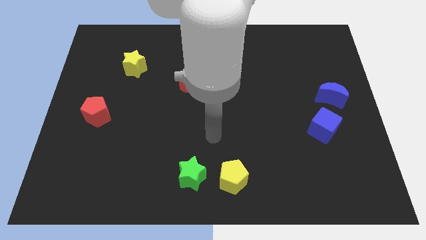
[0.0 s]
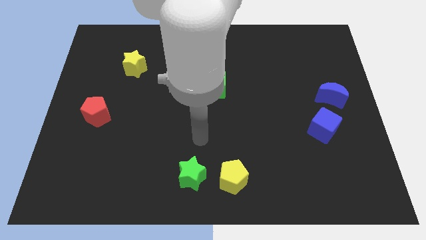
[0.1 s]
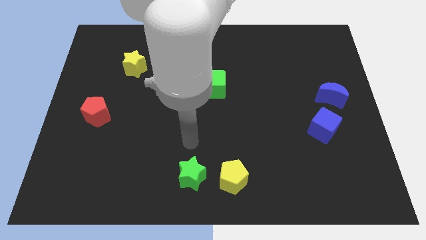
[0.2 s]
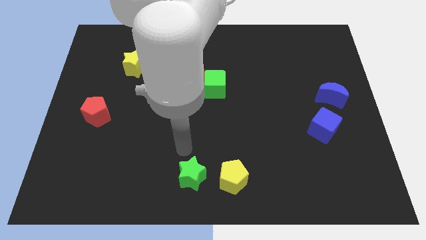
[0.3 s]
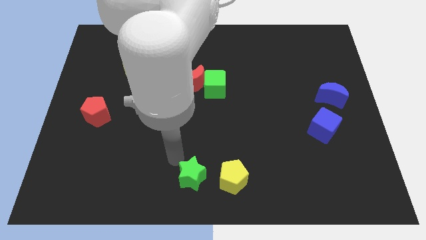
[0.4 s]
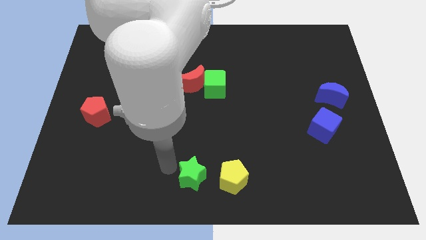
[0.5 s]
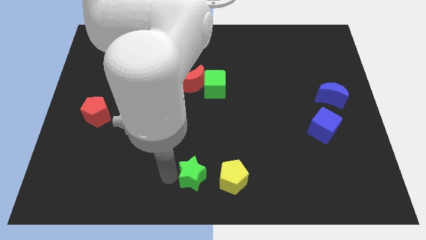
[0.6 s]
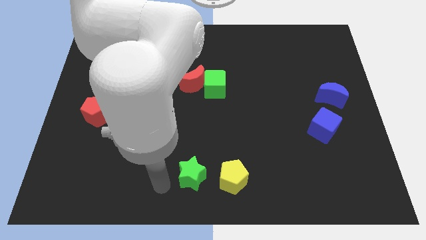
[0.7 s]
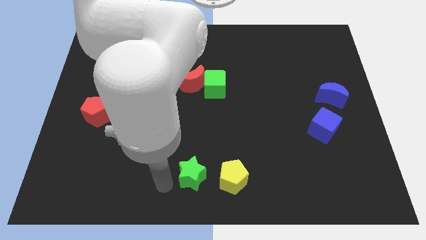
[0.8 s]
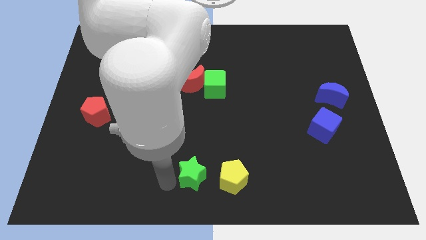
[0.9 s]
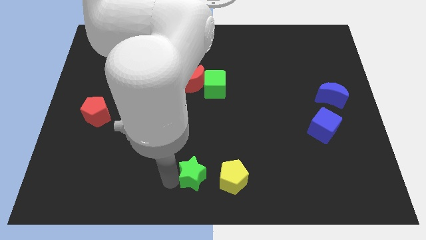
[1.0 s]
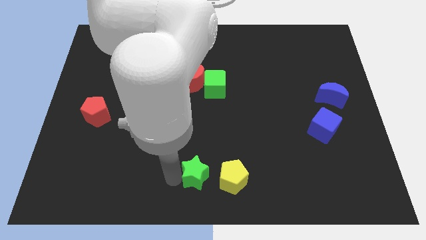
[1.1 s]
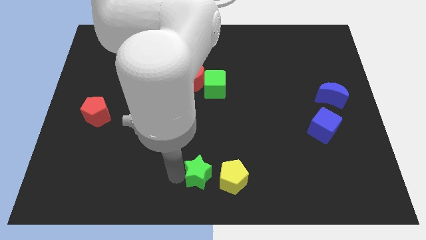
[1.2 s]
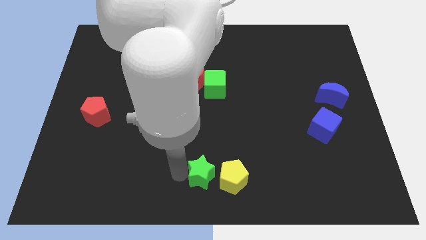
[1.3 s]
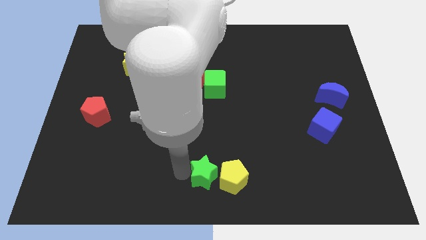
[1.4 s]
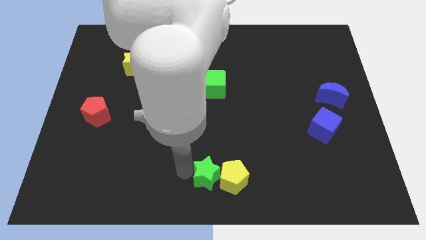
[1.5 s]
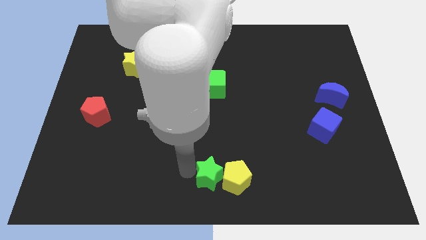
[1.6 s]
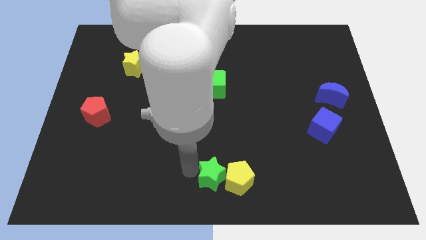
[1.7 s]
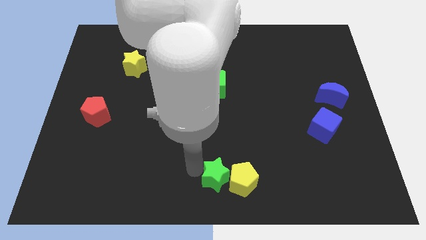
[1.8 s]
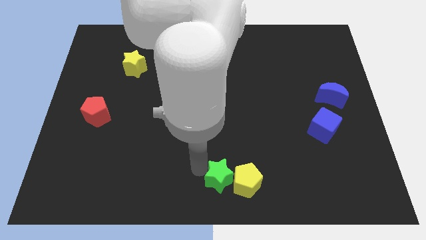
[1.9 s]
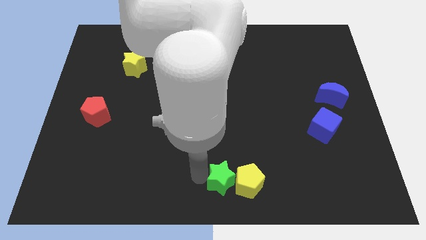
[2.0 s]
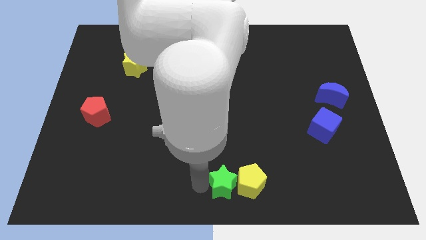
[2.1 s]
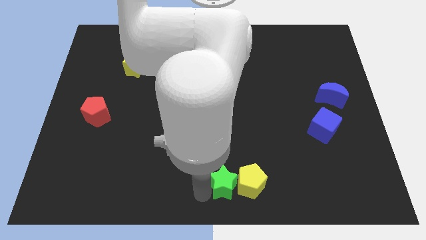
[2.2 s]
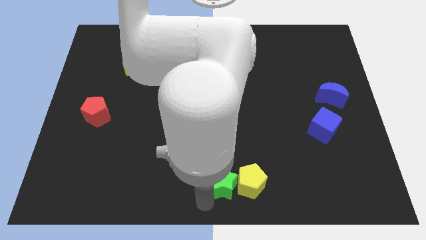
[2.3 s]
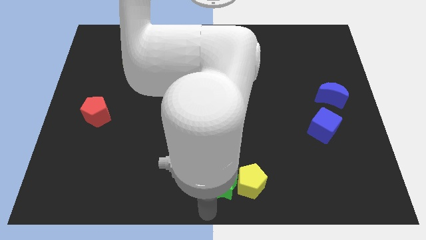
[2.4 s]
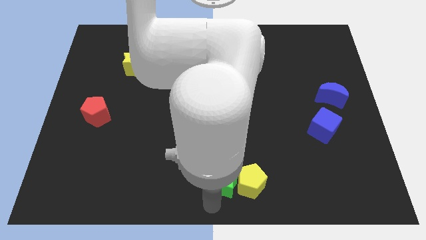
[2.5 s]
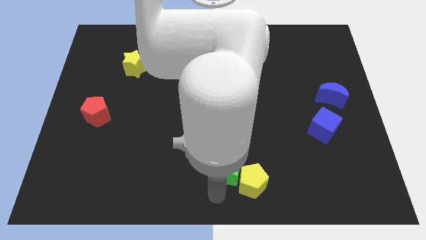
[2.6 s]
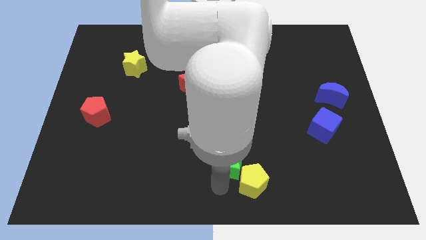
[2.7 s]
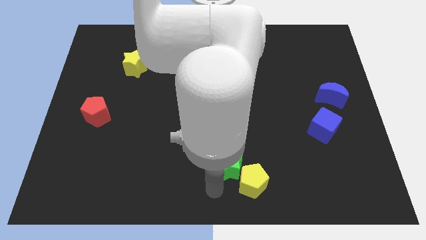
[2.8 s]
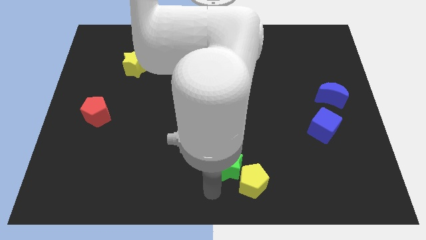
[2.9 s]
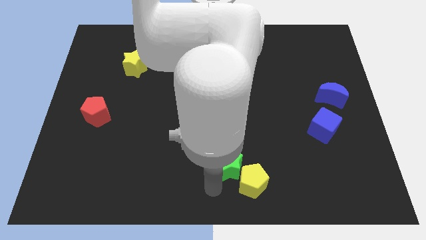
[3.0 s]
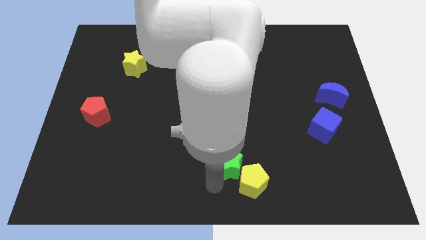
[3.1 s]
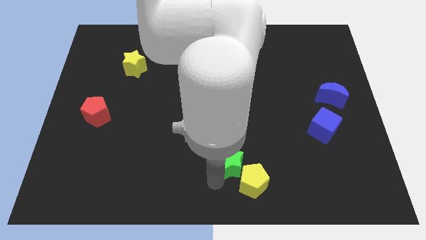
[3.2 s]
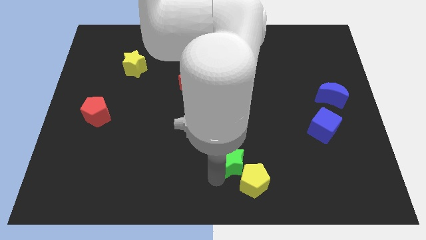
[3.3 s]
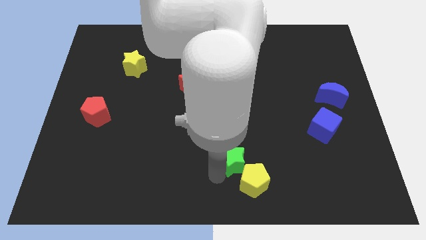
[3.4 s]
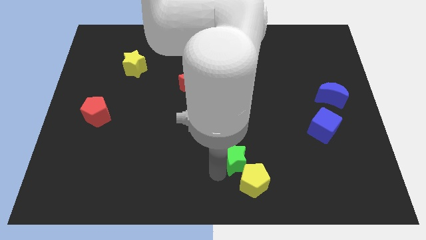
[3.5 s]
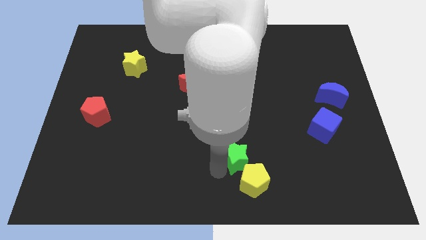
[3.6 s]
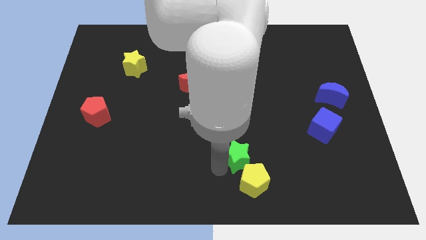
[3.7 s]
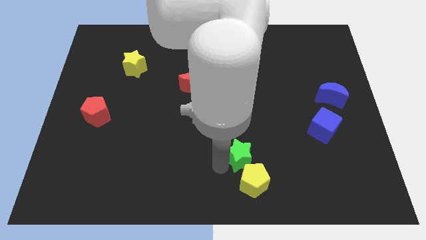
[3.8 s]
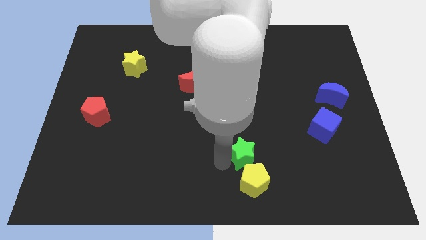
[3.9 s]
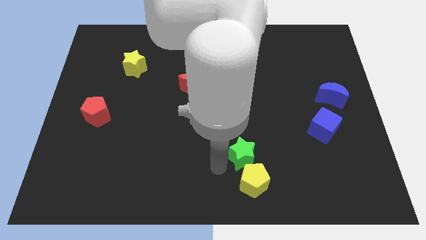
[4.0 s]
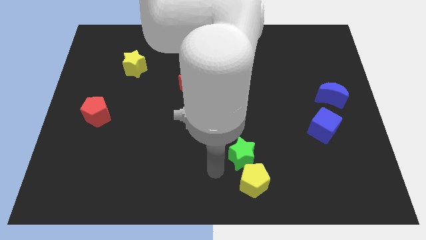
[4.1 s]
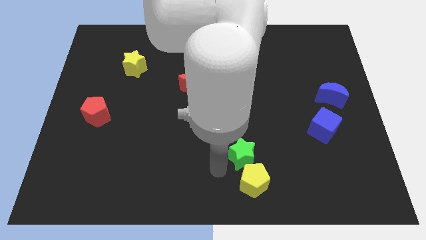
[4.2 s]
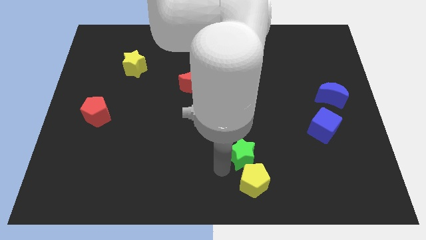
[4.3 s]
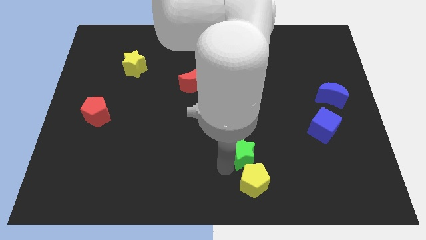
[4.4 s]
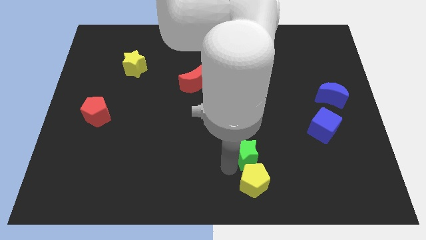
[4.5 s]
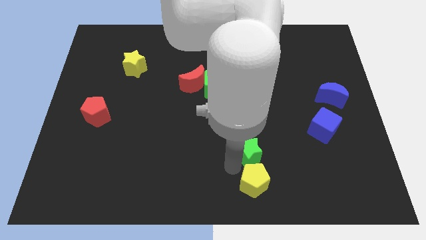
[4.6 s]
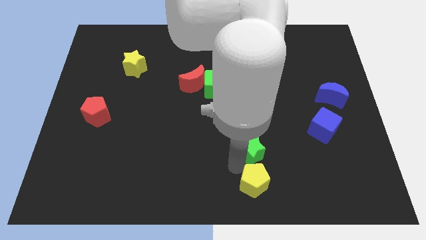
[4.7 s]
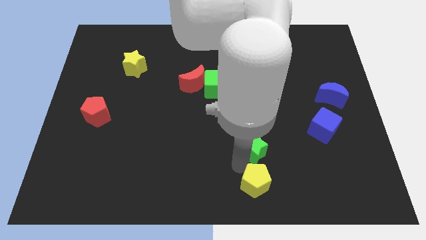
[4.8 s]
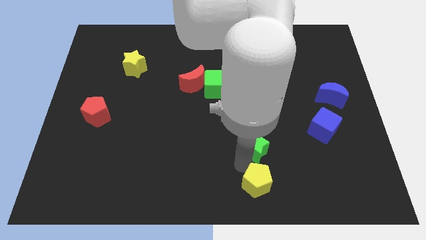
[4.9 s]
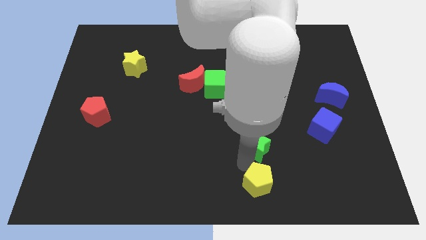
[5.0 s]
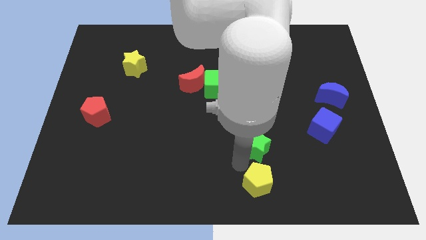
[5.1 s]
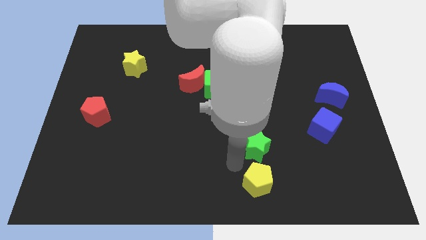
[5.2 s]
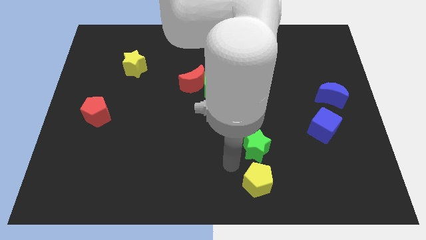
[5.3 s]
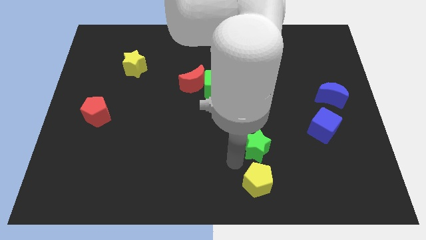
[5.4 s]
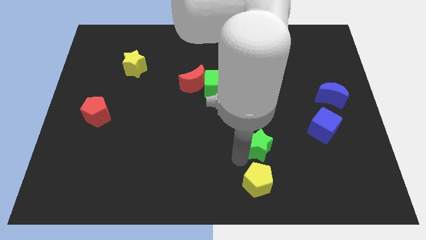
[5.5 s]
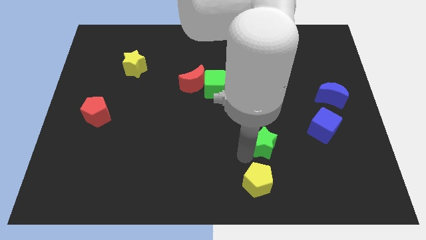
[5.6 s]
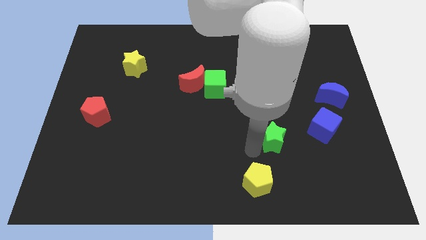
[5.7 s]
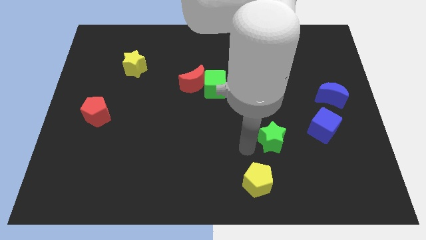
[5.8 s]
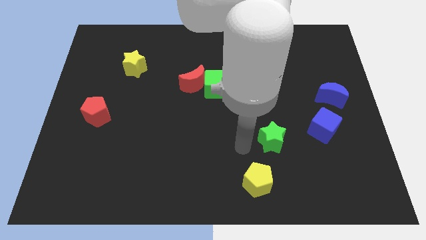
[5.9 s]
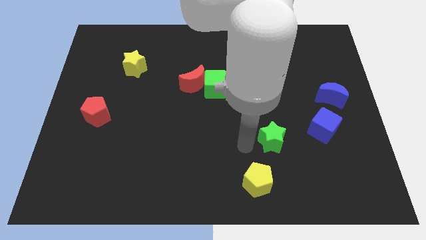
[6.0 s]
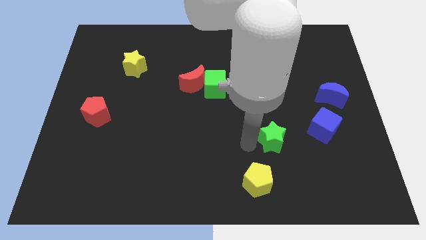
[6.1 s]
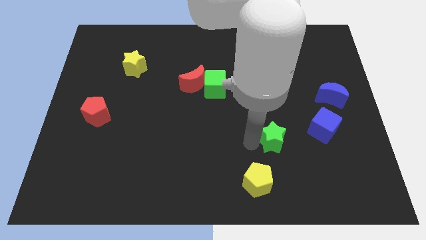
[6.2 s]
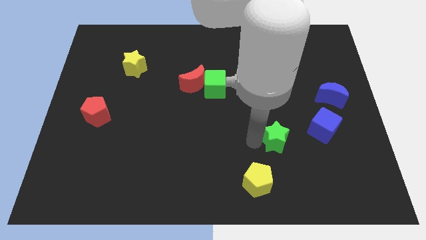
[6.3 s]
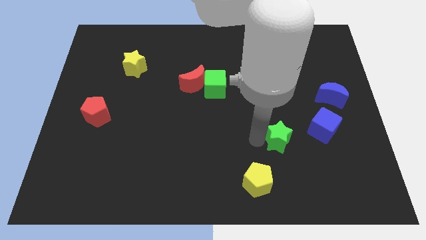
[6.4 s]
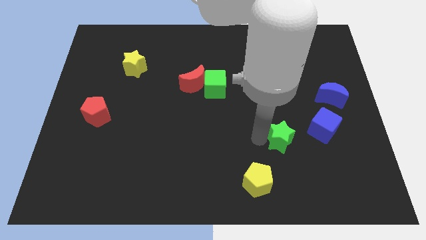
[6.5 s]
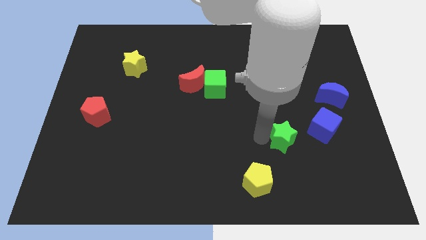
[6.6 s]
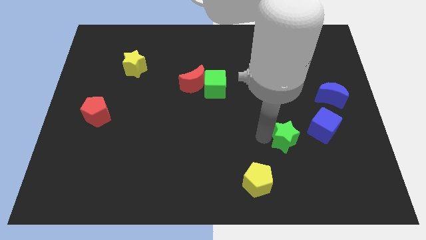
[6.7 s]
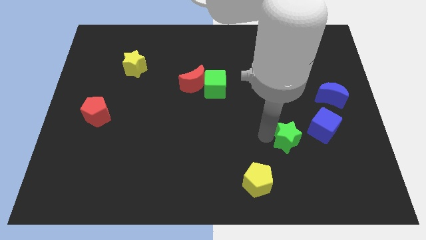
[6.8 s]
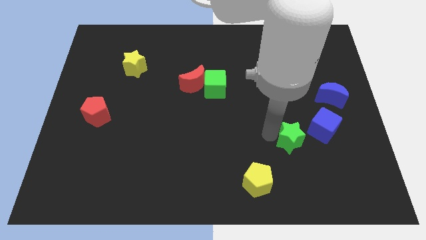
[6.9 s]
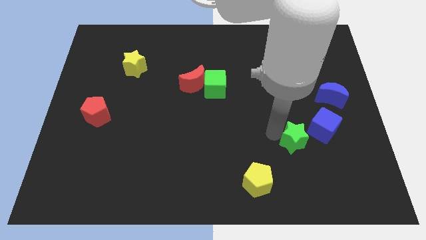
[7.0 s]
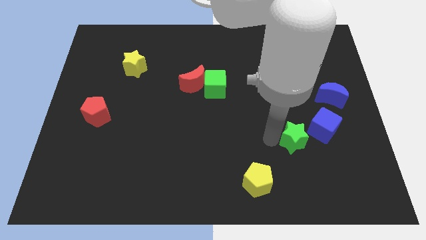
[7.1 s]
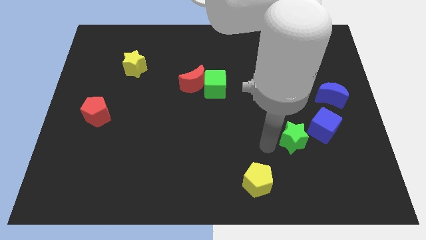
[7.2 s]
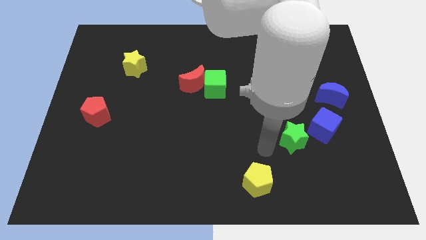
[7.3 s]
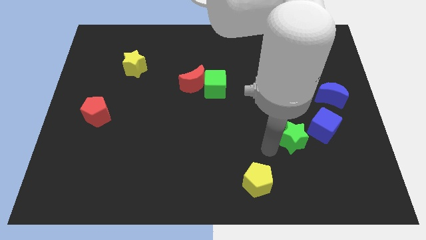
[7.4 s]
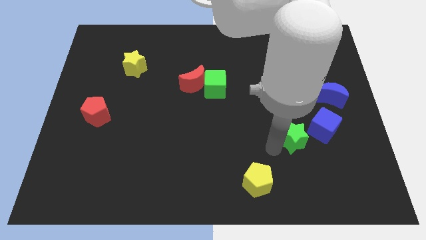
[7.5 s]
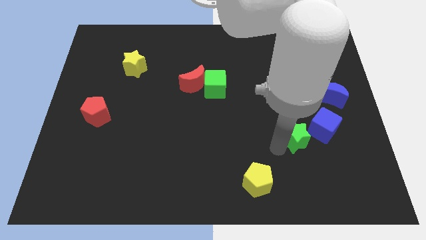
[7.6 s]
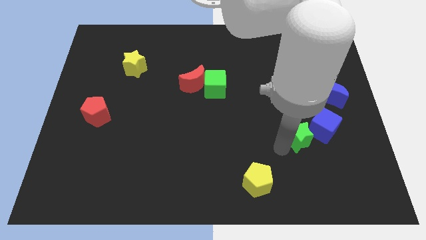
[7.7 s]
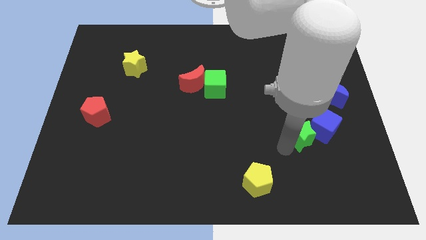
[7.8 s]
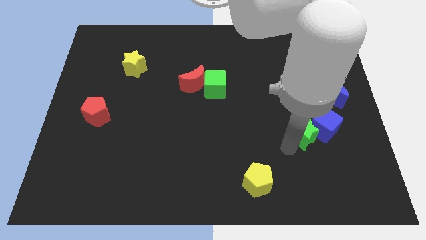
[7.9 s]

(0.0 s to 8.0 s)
put the green star close to the blue cube
